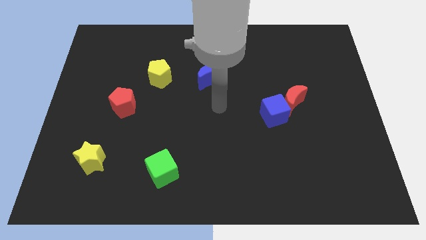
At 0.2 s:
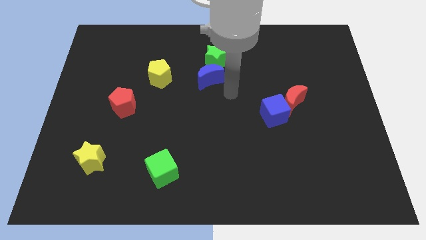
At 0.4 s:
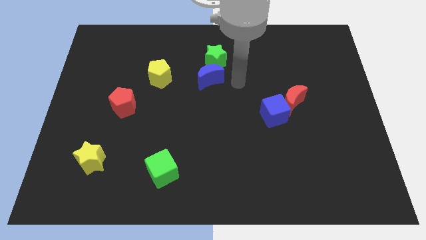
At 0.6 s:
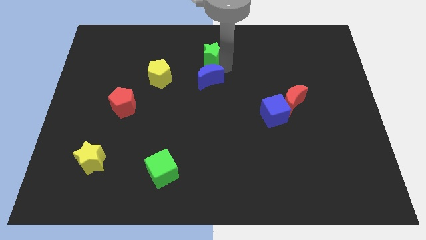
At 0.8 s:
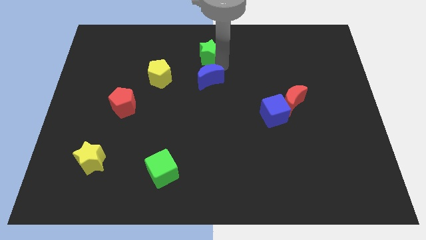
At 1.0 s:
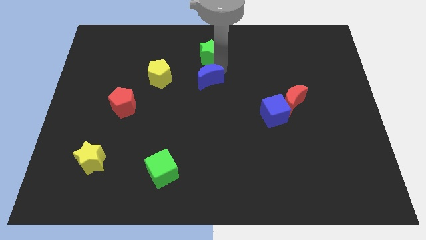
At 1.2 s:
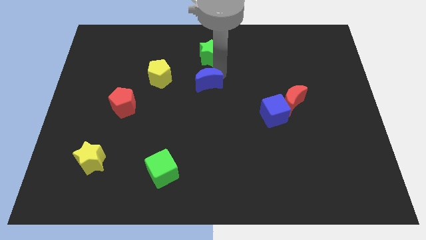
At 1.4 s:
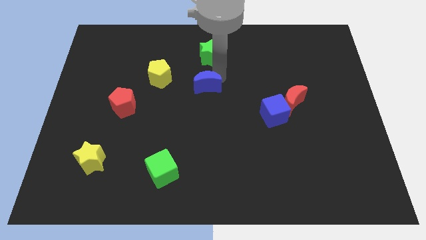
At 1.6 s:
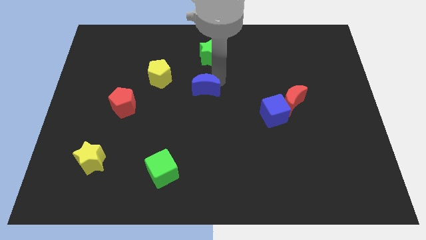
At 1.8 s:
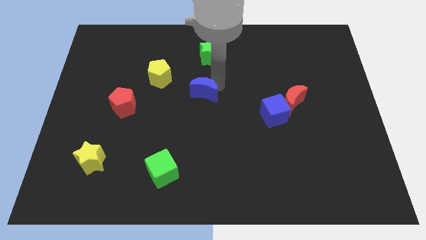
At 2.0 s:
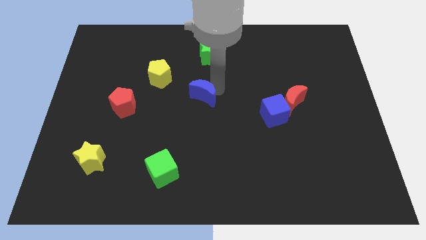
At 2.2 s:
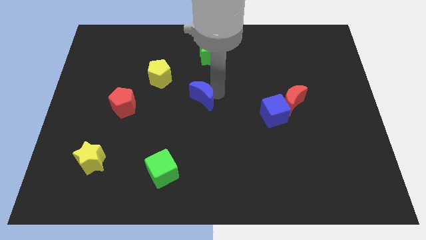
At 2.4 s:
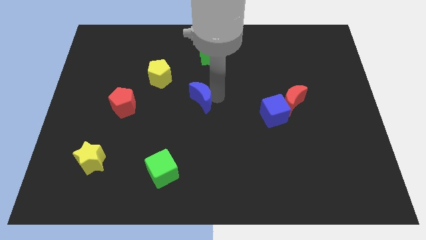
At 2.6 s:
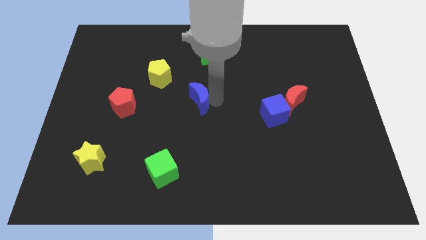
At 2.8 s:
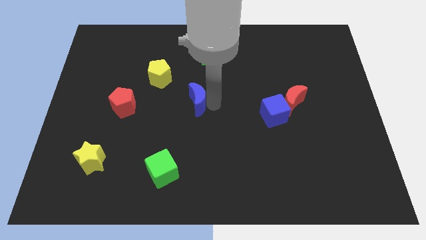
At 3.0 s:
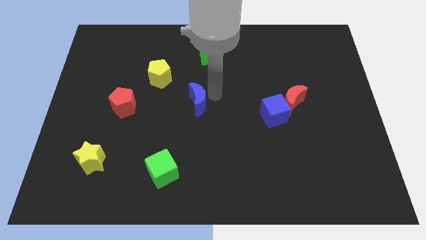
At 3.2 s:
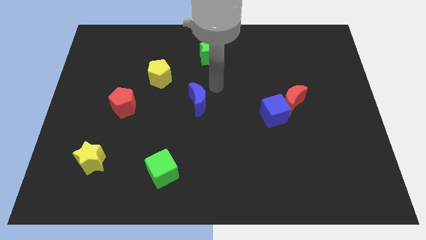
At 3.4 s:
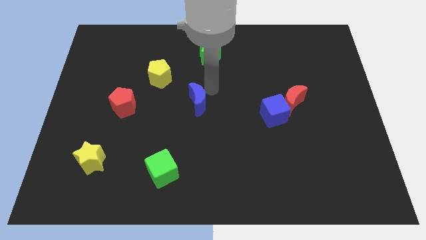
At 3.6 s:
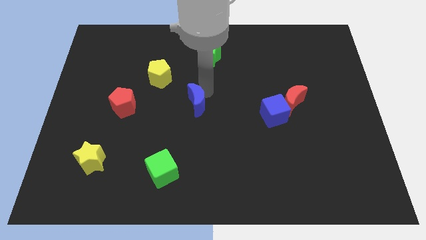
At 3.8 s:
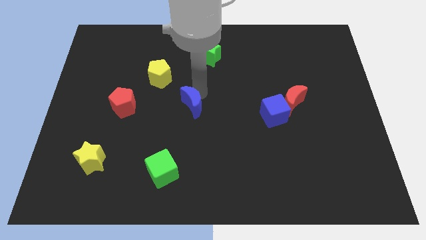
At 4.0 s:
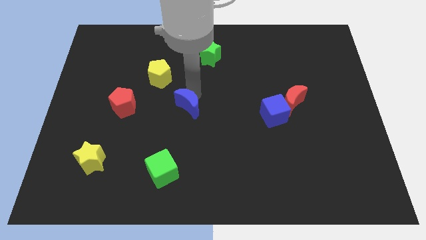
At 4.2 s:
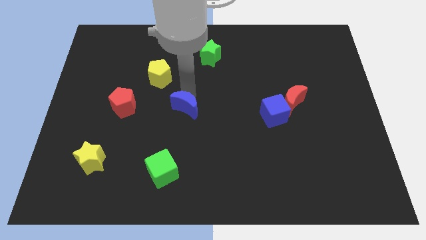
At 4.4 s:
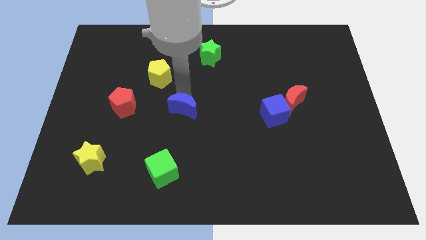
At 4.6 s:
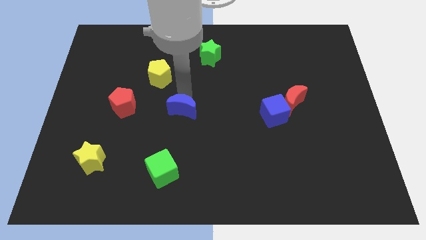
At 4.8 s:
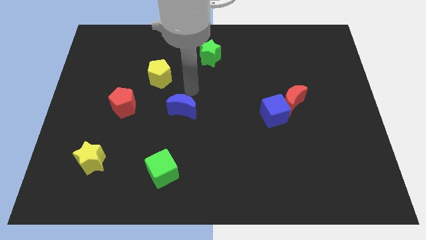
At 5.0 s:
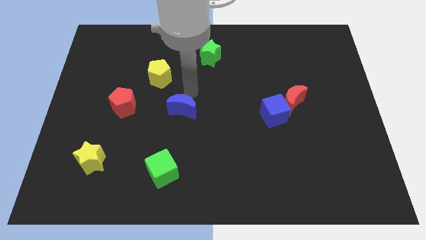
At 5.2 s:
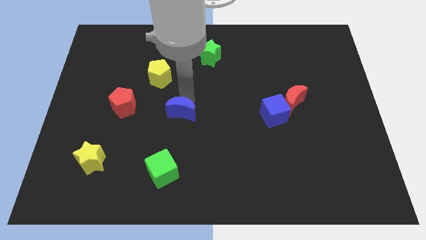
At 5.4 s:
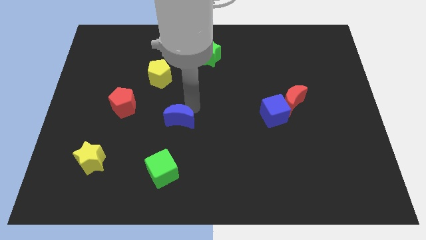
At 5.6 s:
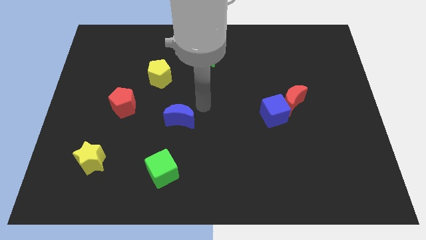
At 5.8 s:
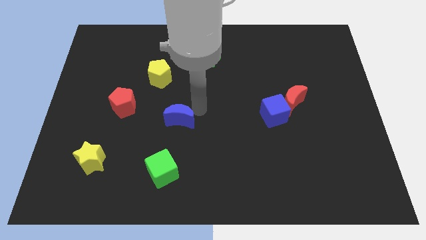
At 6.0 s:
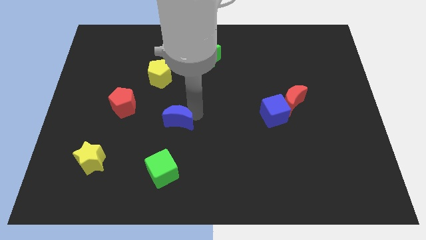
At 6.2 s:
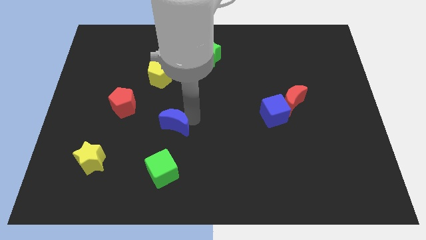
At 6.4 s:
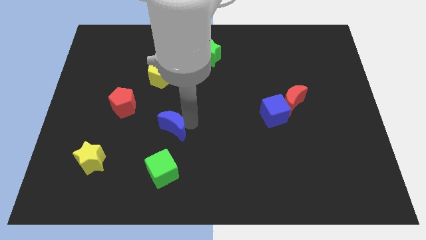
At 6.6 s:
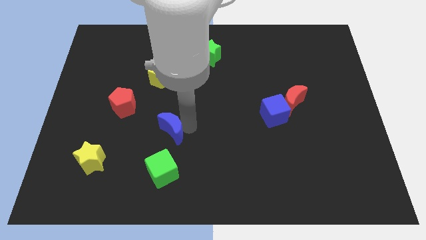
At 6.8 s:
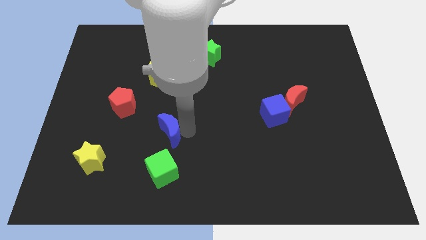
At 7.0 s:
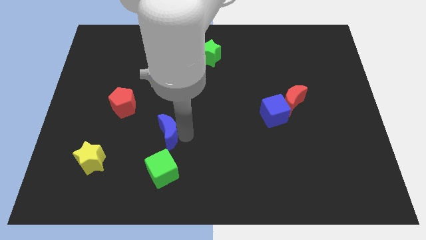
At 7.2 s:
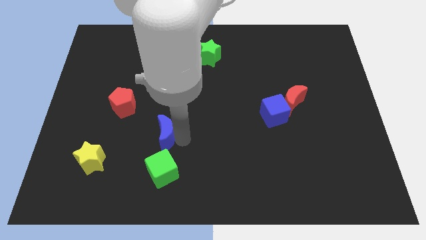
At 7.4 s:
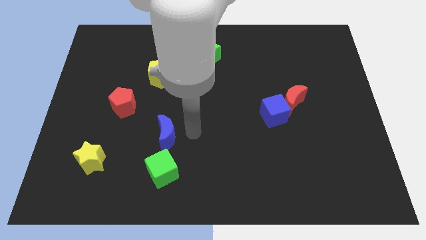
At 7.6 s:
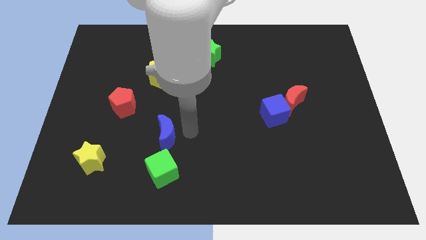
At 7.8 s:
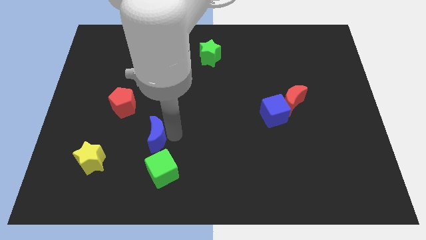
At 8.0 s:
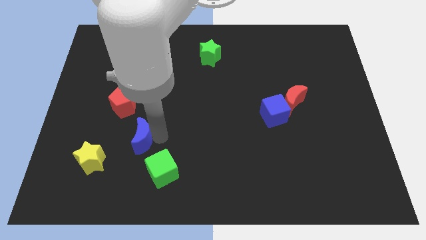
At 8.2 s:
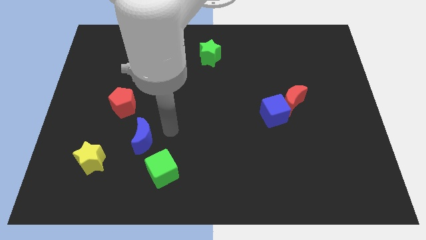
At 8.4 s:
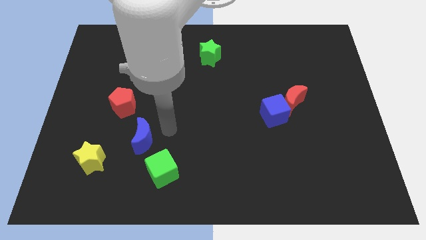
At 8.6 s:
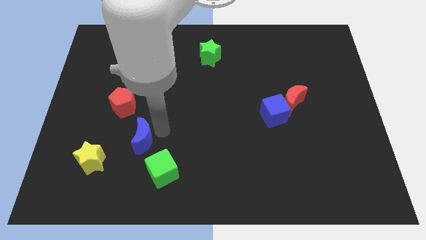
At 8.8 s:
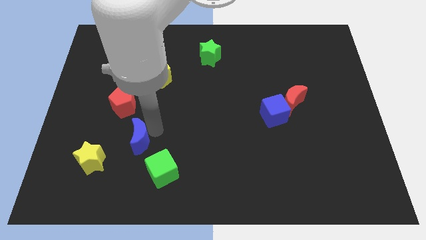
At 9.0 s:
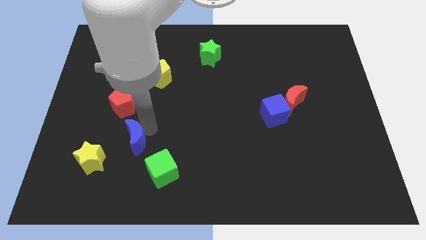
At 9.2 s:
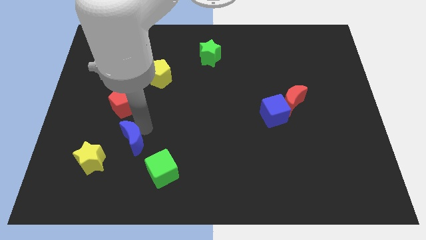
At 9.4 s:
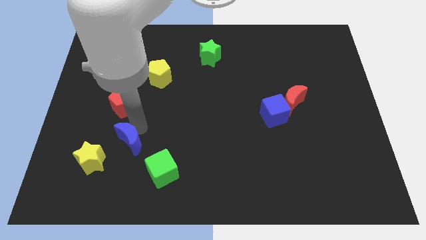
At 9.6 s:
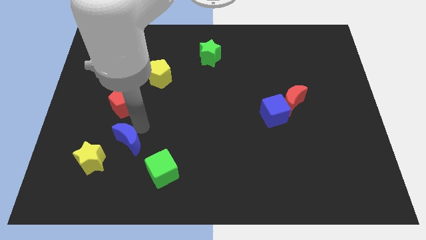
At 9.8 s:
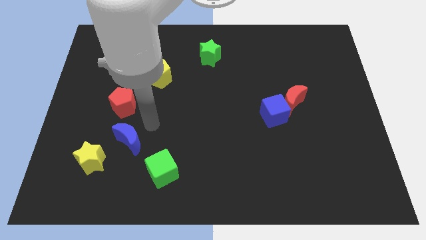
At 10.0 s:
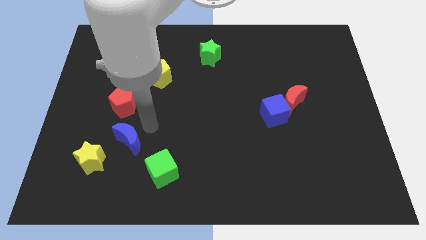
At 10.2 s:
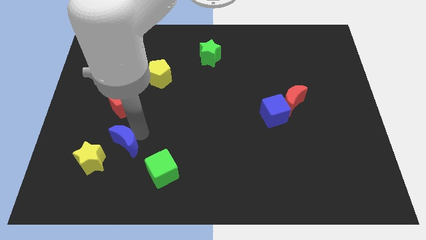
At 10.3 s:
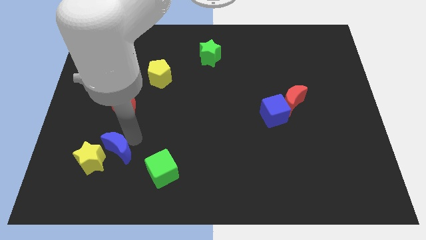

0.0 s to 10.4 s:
move the blue moon next to the yellow star

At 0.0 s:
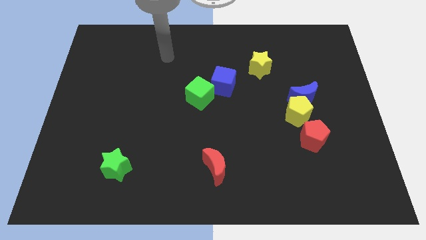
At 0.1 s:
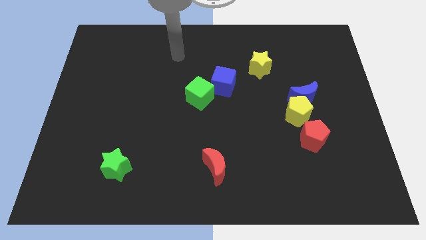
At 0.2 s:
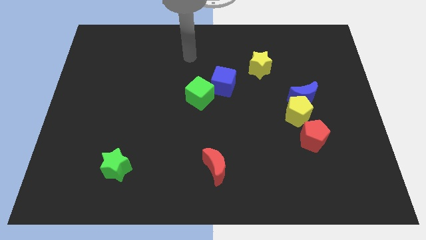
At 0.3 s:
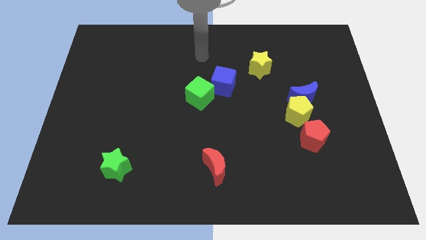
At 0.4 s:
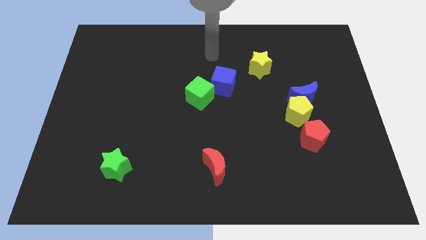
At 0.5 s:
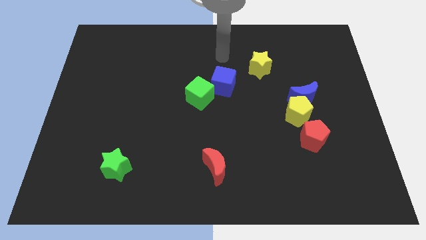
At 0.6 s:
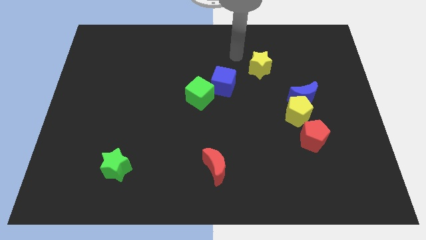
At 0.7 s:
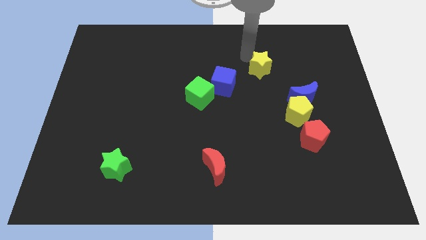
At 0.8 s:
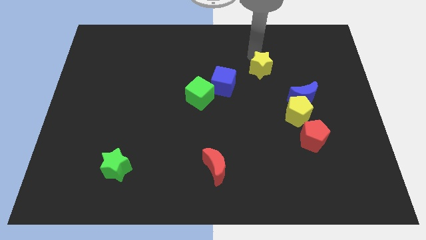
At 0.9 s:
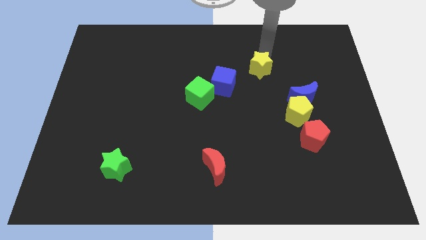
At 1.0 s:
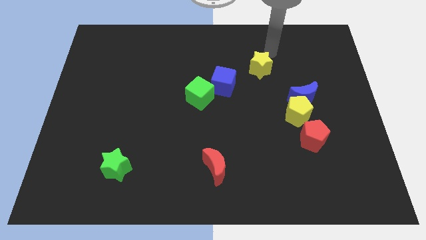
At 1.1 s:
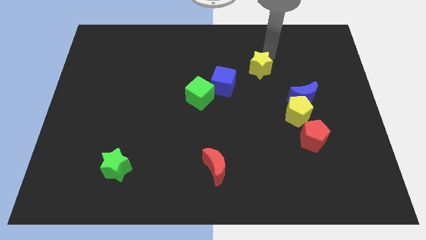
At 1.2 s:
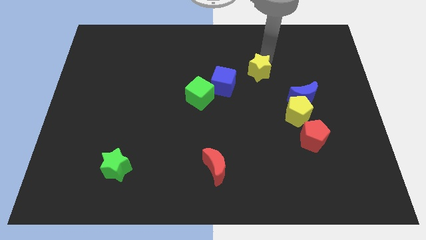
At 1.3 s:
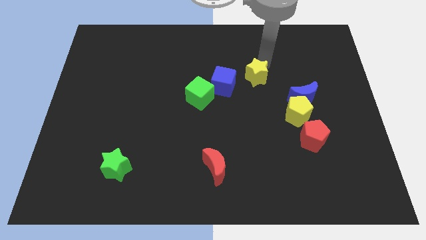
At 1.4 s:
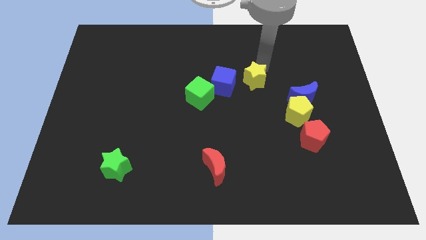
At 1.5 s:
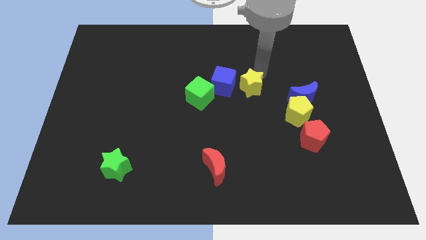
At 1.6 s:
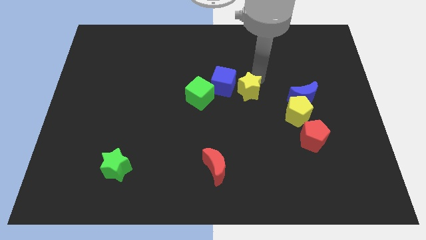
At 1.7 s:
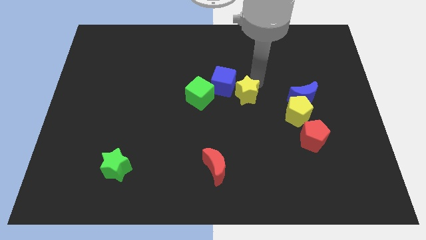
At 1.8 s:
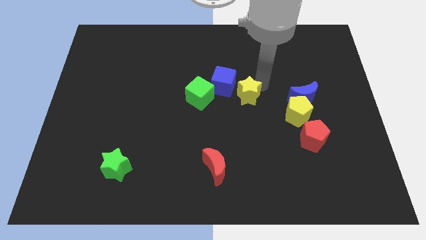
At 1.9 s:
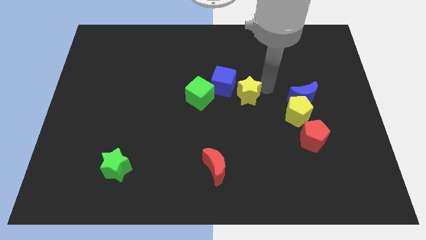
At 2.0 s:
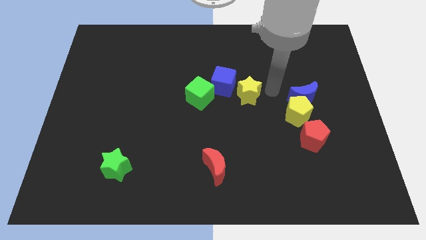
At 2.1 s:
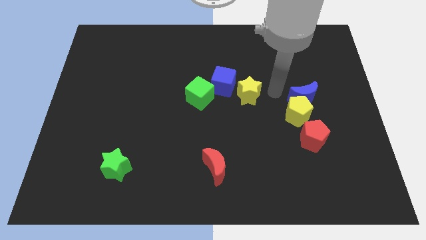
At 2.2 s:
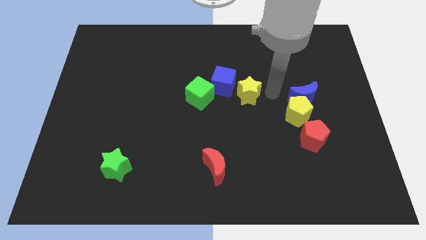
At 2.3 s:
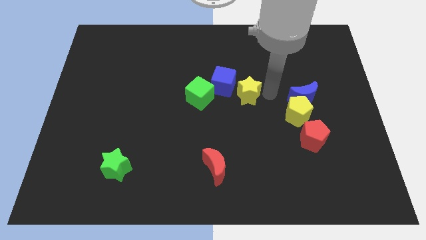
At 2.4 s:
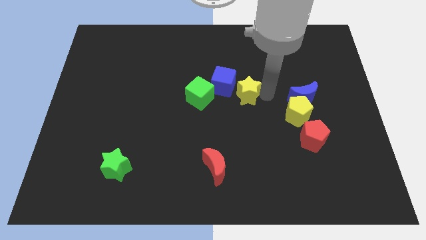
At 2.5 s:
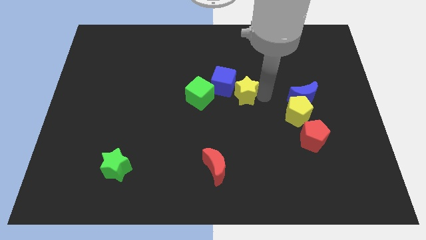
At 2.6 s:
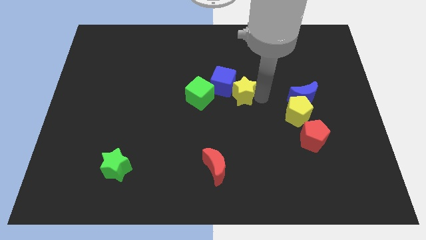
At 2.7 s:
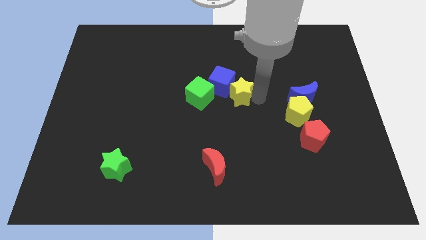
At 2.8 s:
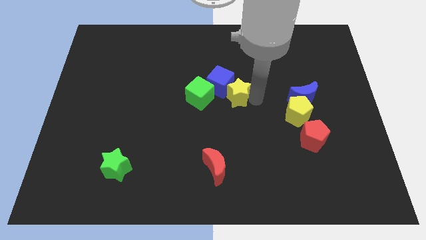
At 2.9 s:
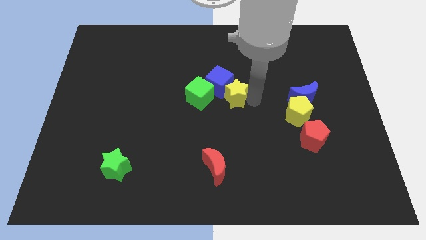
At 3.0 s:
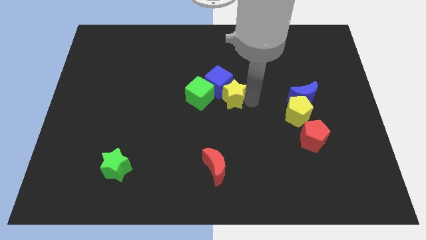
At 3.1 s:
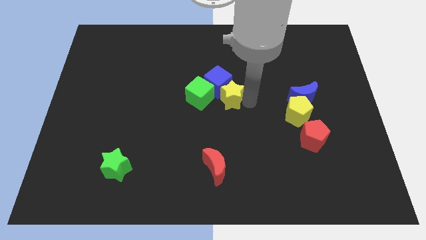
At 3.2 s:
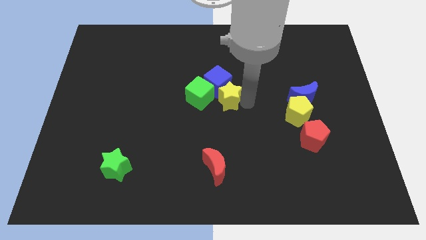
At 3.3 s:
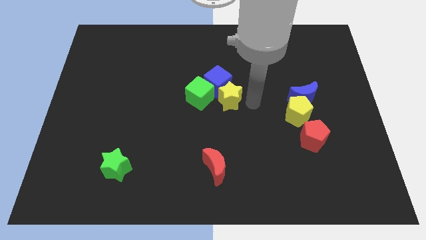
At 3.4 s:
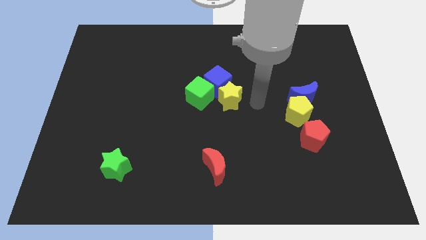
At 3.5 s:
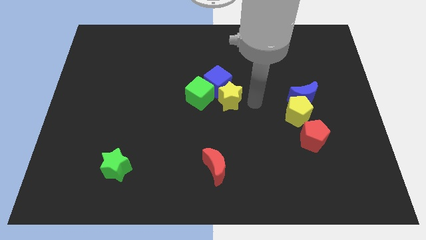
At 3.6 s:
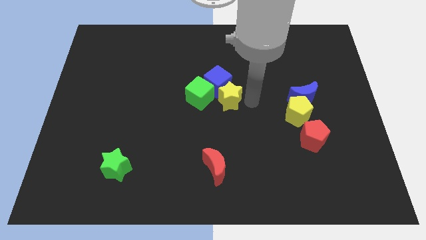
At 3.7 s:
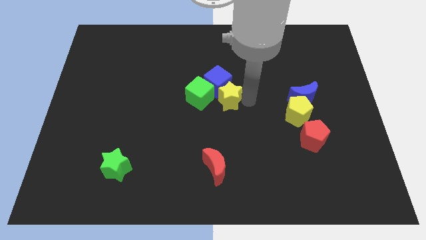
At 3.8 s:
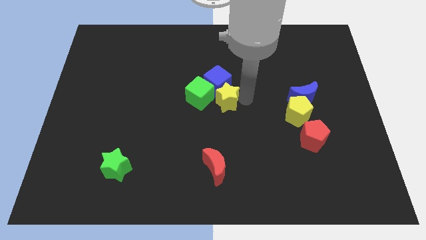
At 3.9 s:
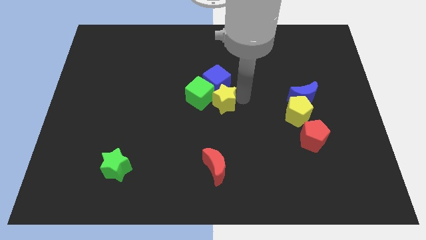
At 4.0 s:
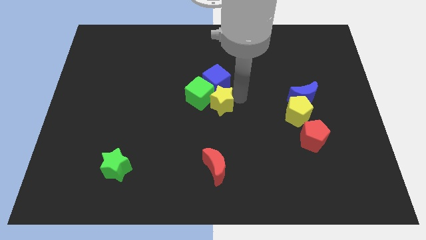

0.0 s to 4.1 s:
move the yellow star to the green cube
